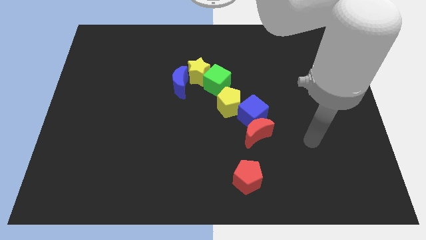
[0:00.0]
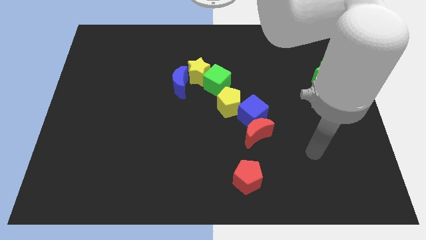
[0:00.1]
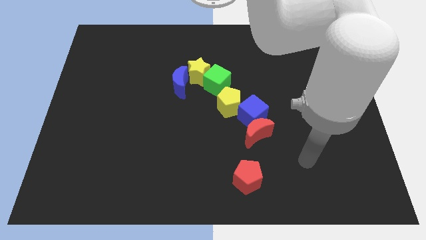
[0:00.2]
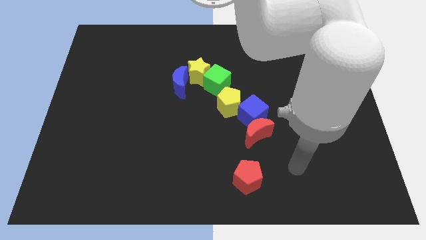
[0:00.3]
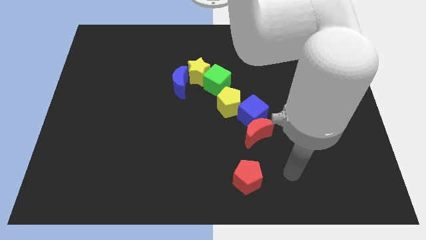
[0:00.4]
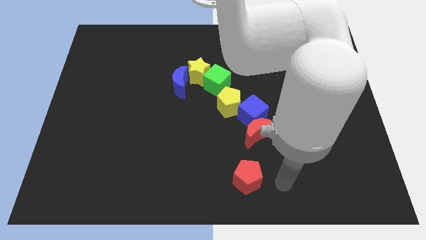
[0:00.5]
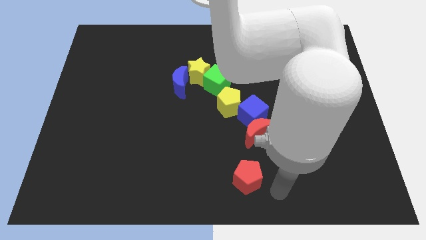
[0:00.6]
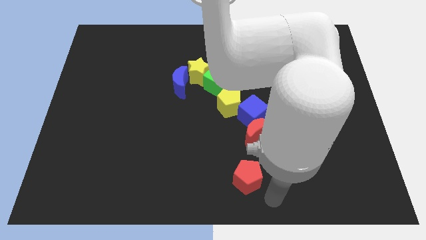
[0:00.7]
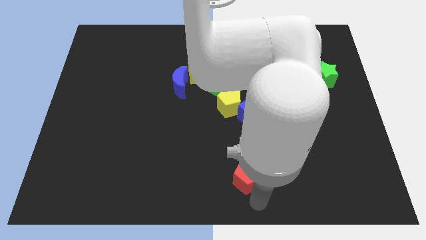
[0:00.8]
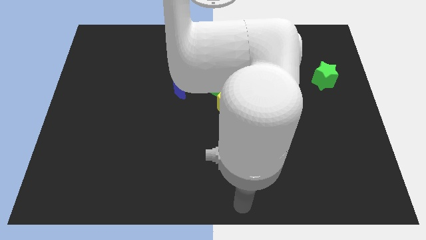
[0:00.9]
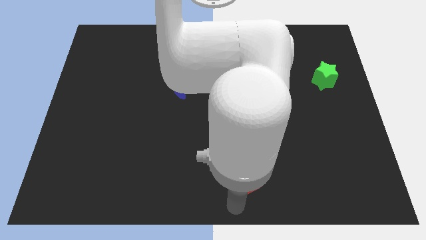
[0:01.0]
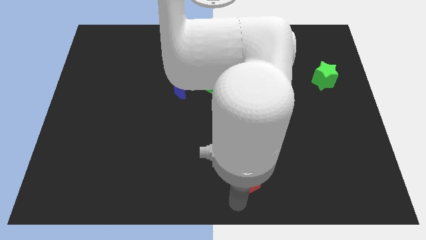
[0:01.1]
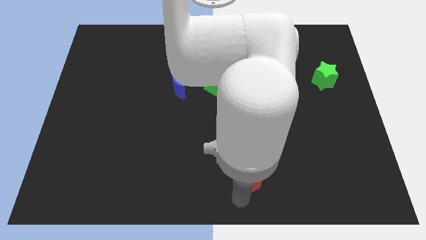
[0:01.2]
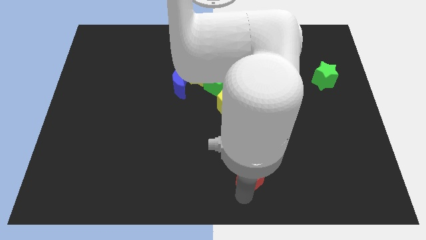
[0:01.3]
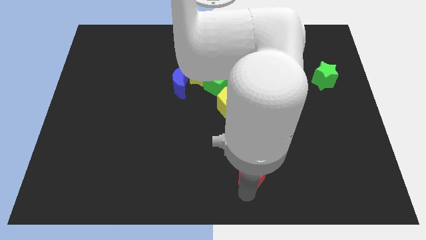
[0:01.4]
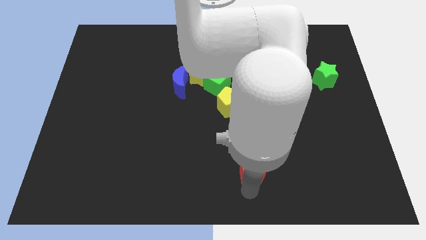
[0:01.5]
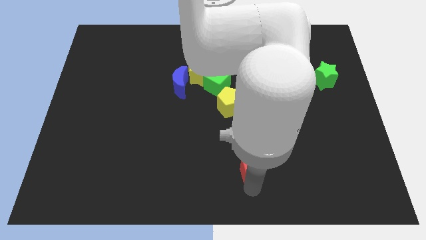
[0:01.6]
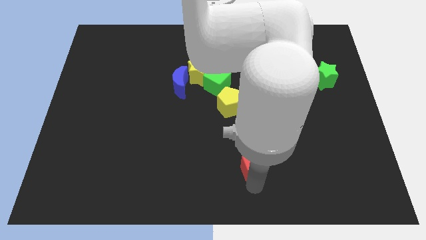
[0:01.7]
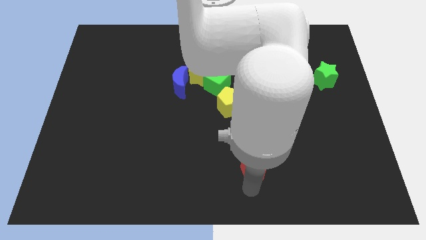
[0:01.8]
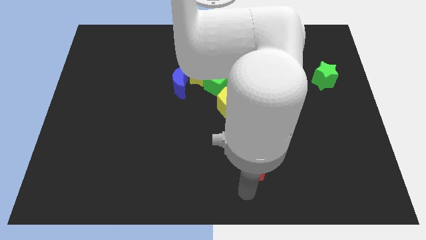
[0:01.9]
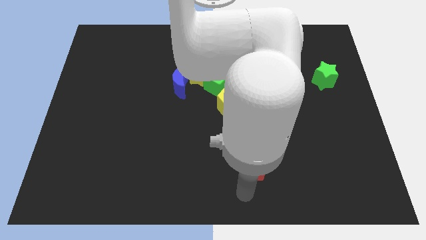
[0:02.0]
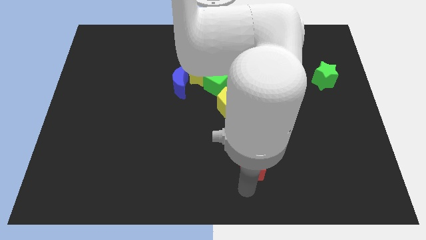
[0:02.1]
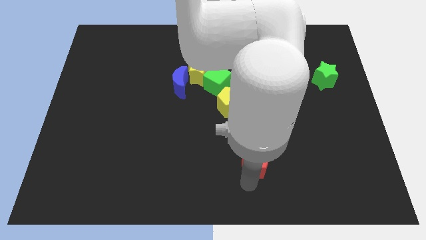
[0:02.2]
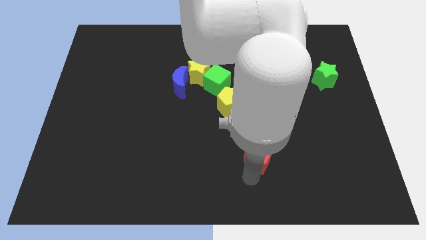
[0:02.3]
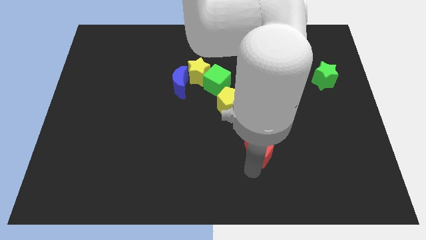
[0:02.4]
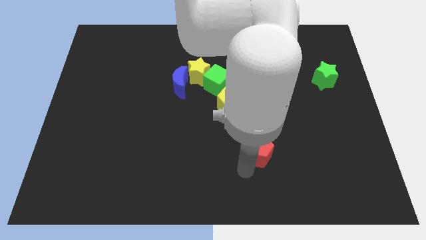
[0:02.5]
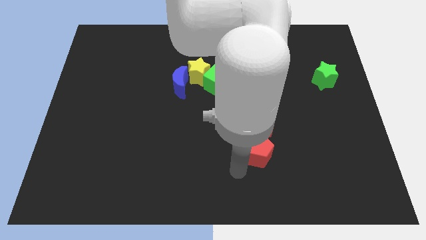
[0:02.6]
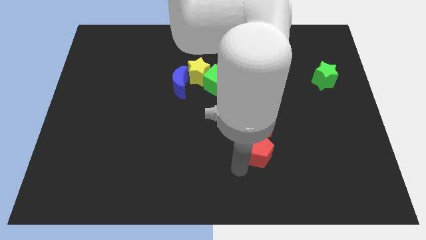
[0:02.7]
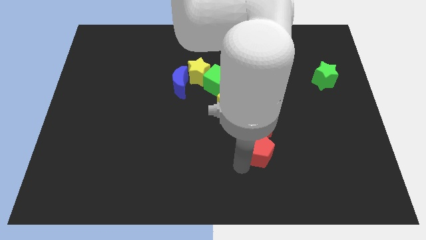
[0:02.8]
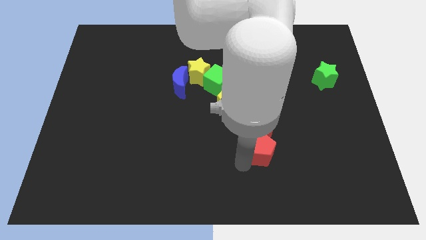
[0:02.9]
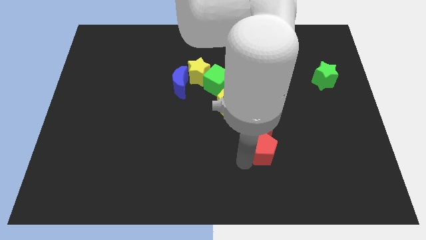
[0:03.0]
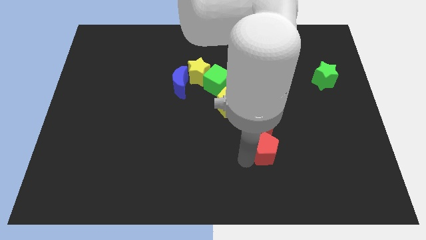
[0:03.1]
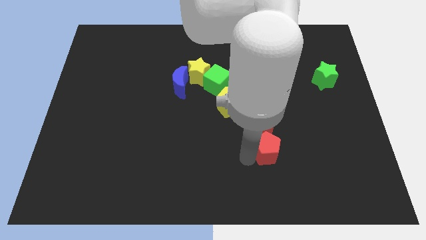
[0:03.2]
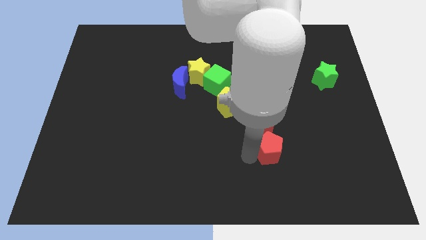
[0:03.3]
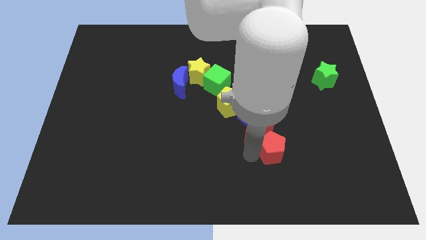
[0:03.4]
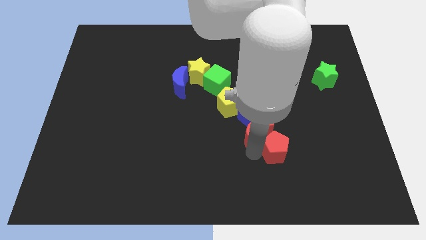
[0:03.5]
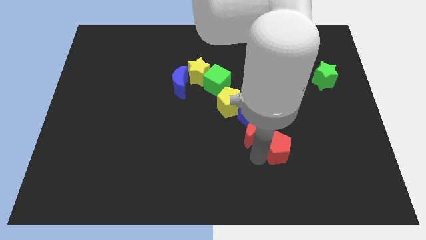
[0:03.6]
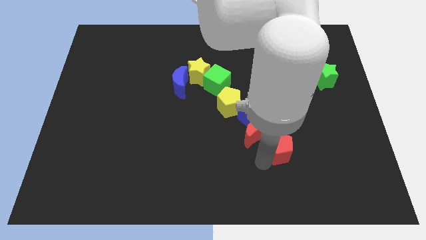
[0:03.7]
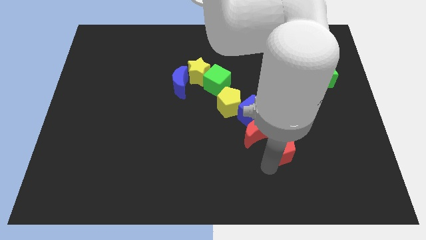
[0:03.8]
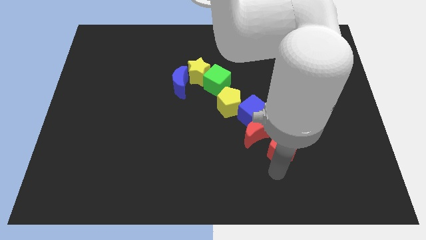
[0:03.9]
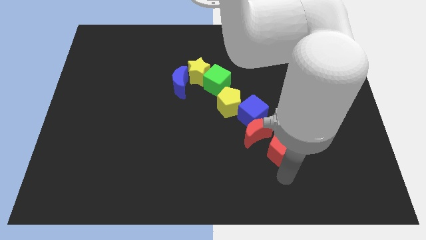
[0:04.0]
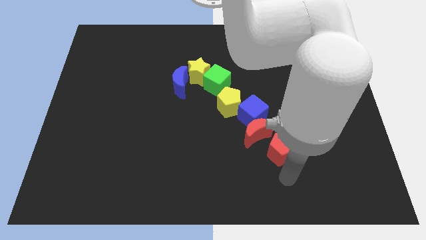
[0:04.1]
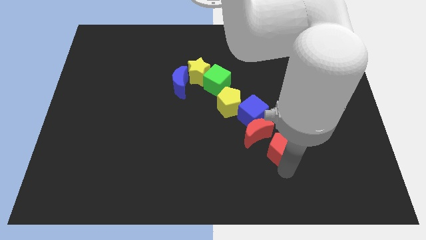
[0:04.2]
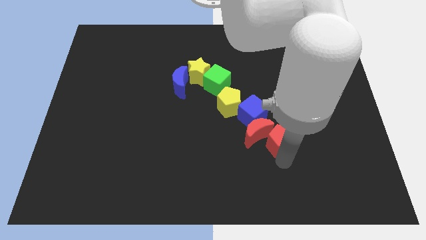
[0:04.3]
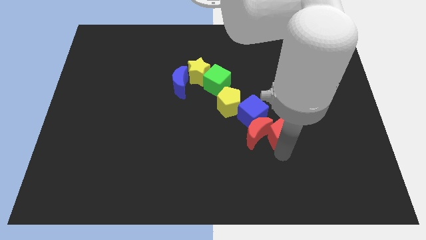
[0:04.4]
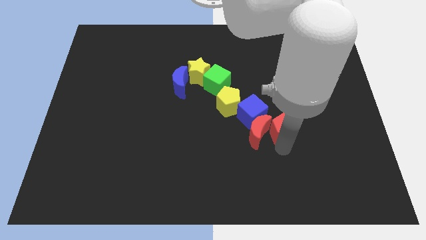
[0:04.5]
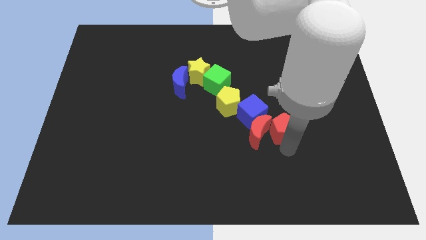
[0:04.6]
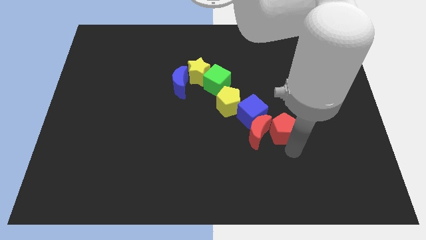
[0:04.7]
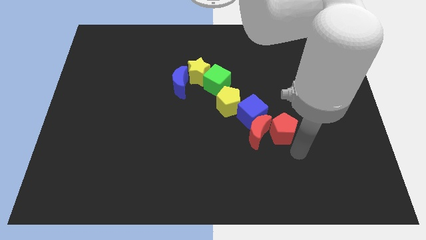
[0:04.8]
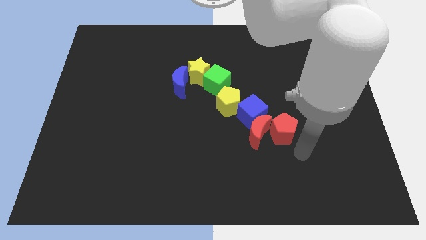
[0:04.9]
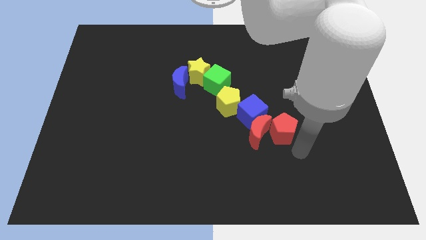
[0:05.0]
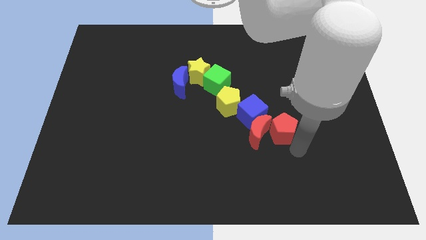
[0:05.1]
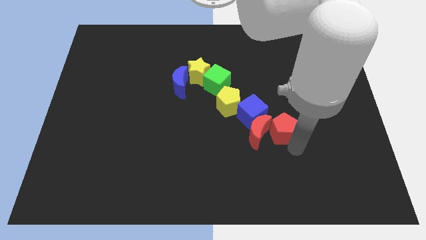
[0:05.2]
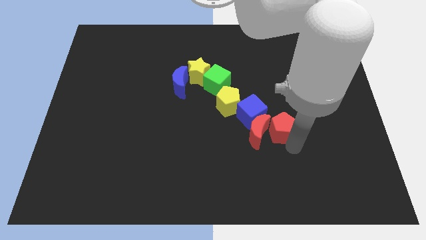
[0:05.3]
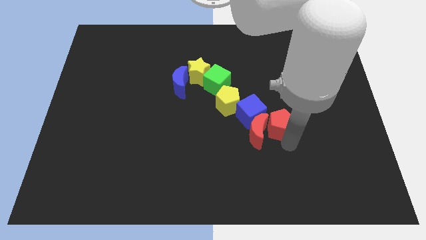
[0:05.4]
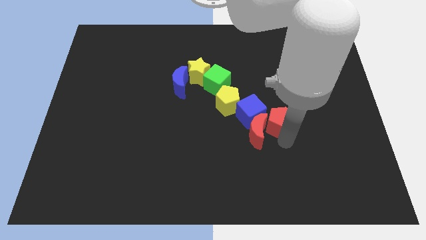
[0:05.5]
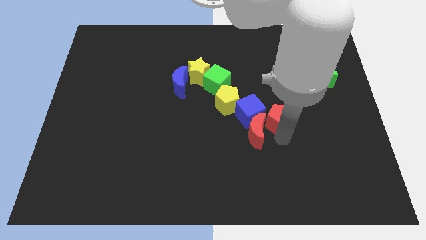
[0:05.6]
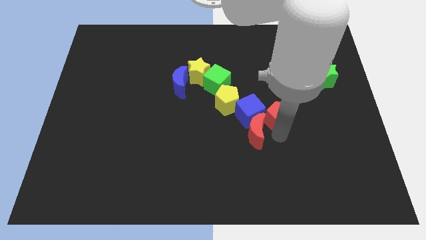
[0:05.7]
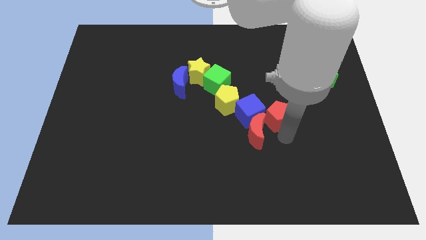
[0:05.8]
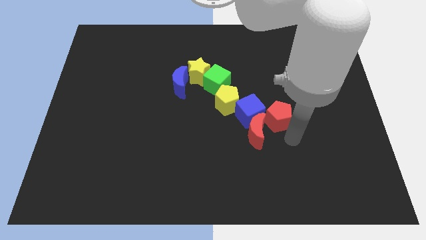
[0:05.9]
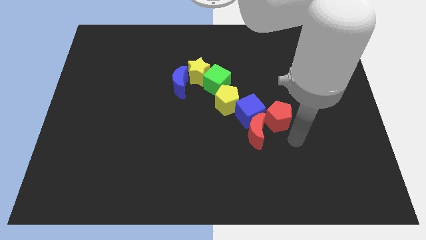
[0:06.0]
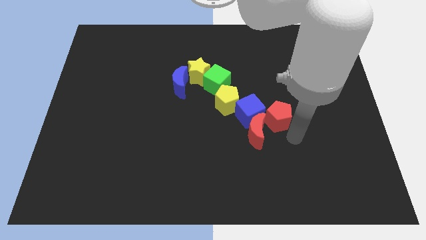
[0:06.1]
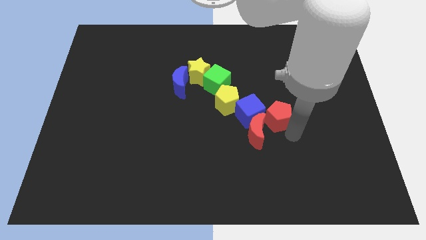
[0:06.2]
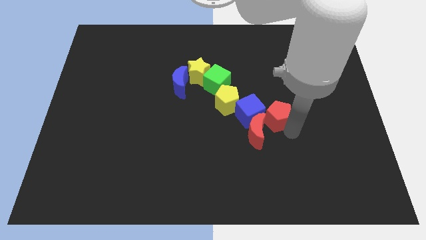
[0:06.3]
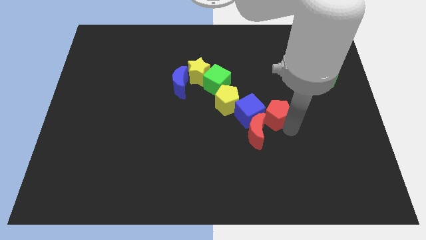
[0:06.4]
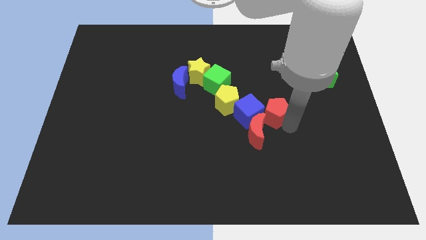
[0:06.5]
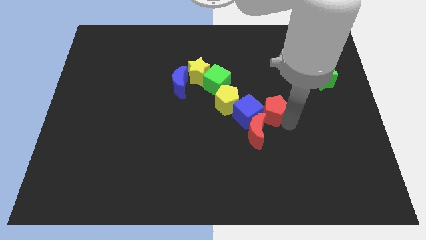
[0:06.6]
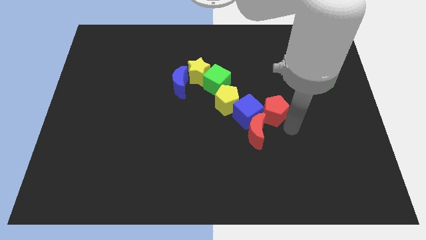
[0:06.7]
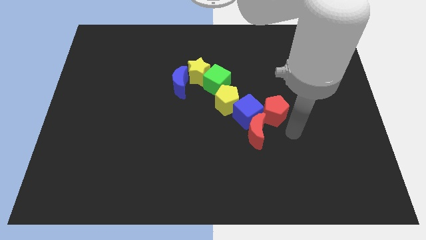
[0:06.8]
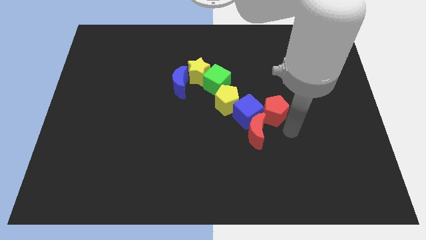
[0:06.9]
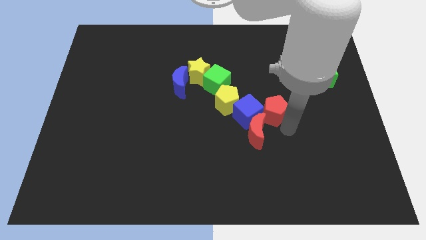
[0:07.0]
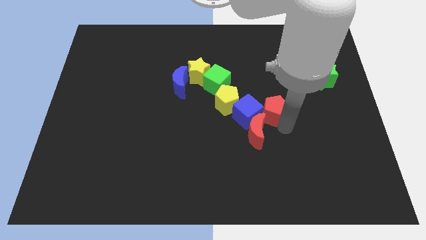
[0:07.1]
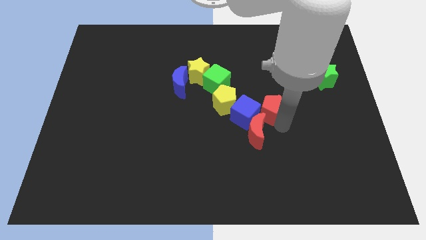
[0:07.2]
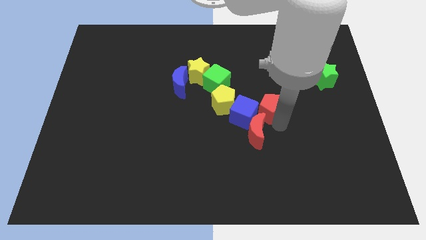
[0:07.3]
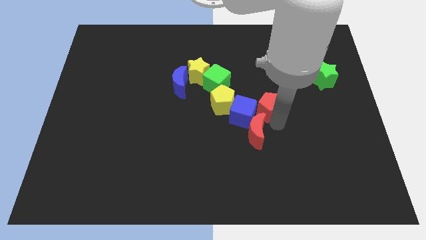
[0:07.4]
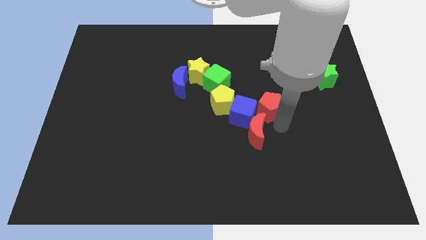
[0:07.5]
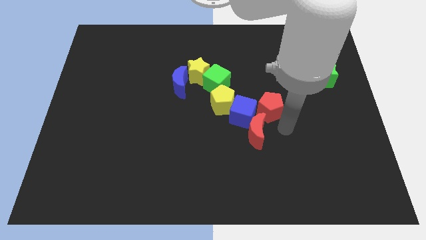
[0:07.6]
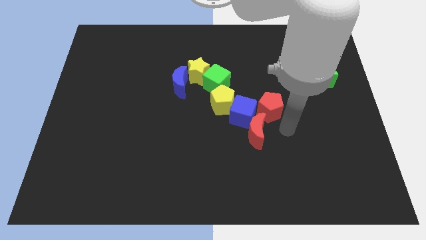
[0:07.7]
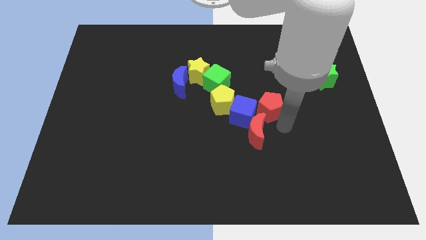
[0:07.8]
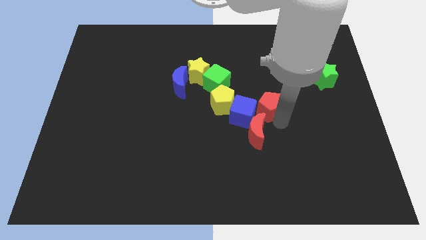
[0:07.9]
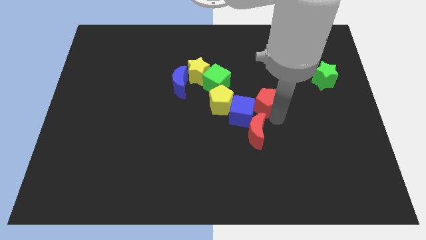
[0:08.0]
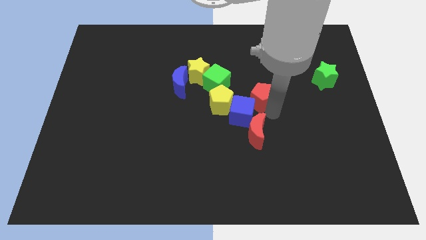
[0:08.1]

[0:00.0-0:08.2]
slide the red pentagon up
